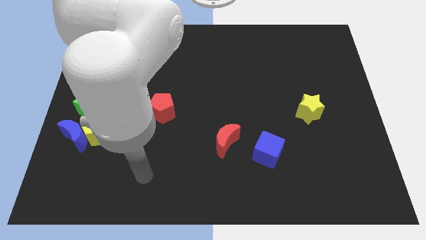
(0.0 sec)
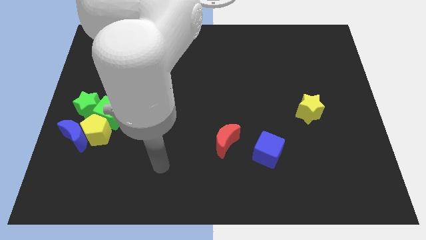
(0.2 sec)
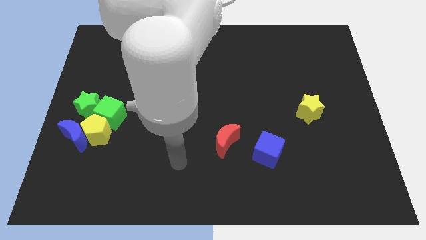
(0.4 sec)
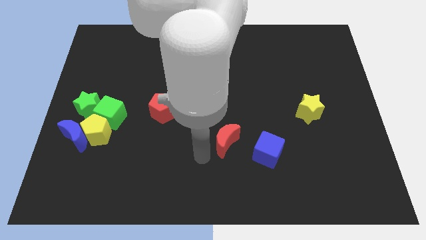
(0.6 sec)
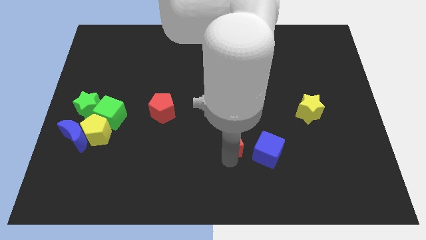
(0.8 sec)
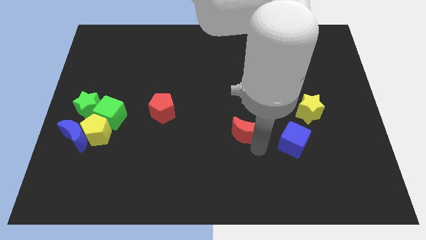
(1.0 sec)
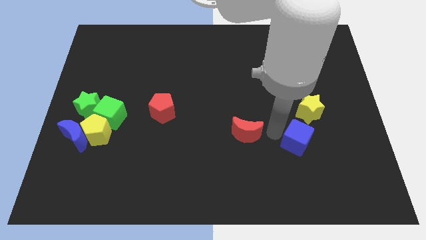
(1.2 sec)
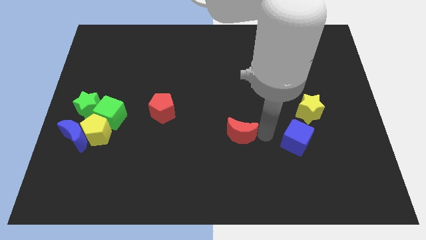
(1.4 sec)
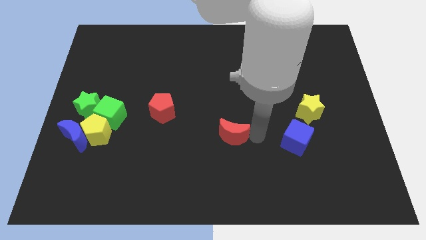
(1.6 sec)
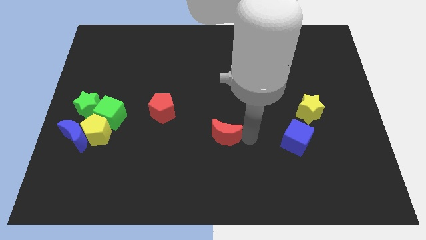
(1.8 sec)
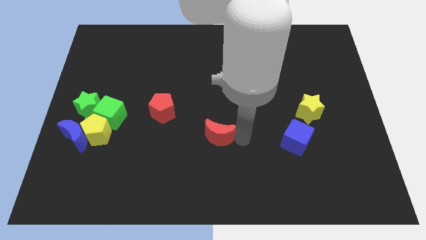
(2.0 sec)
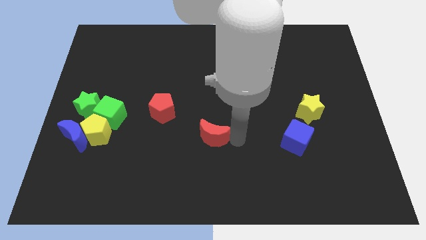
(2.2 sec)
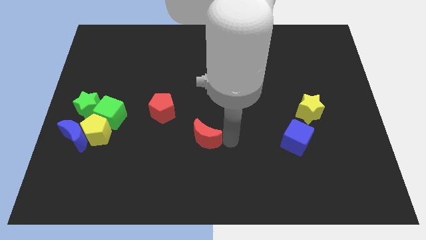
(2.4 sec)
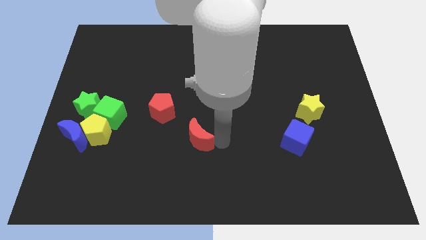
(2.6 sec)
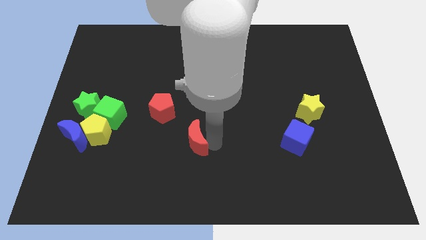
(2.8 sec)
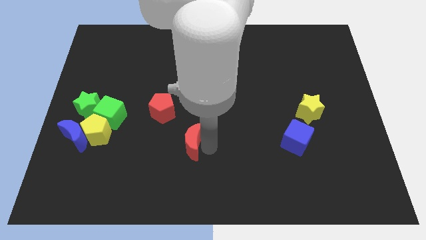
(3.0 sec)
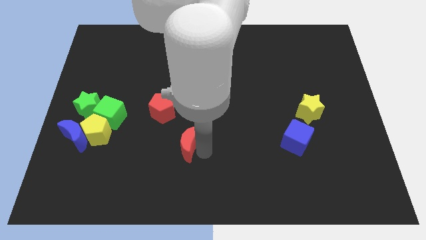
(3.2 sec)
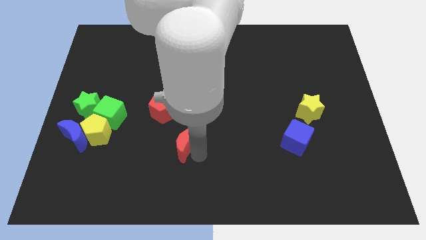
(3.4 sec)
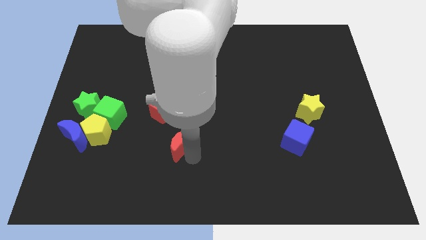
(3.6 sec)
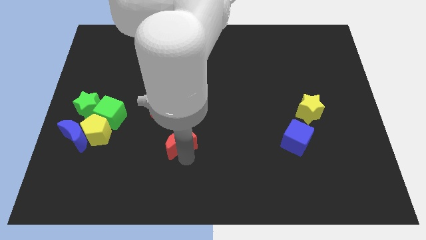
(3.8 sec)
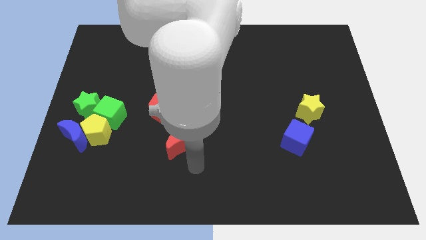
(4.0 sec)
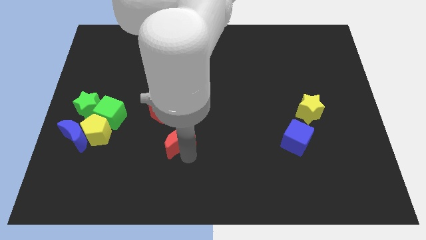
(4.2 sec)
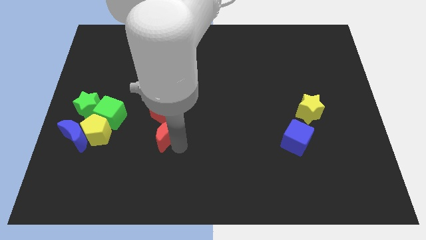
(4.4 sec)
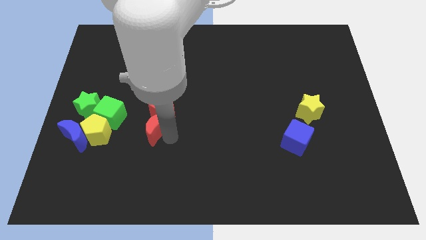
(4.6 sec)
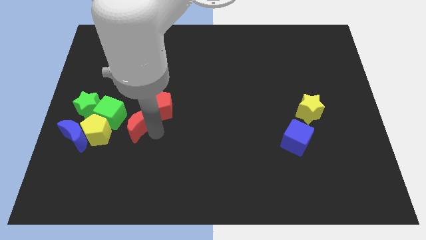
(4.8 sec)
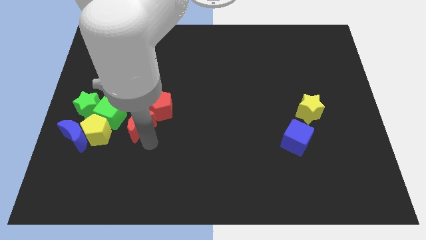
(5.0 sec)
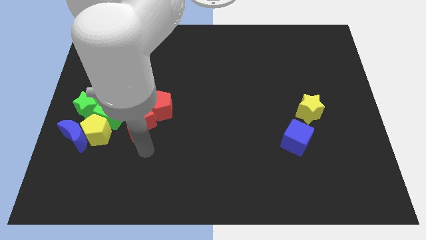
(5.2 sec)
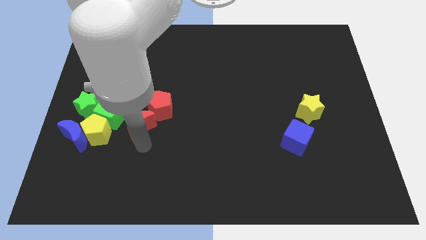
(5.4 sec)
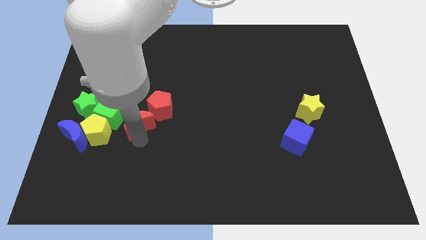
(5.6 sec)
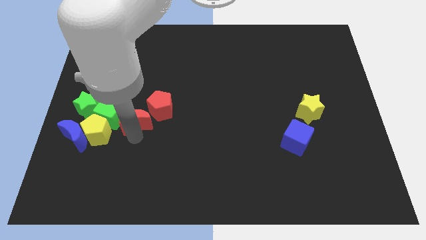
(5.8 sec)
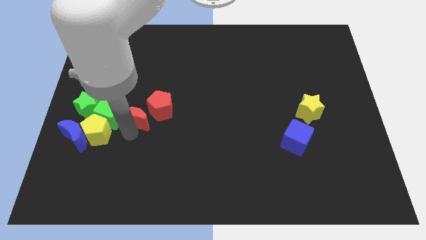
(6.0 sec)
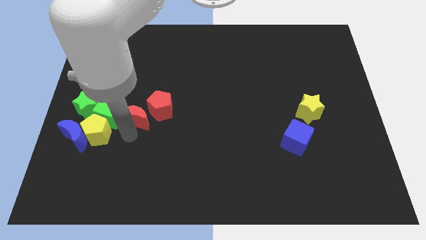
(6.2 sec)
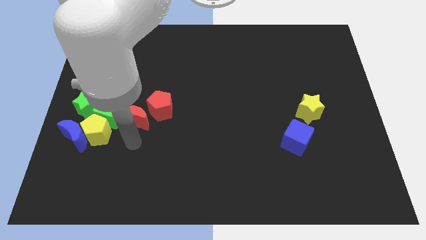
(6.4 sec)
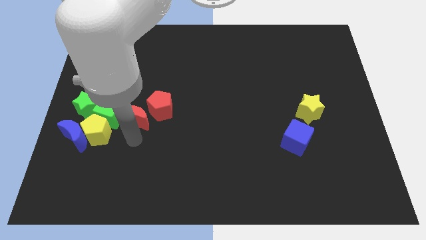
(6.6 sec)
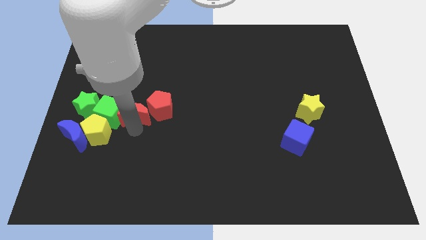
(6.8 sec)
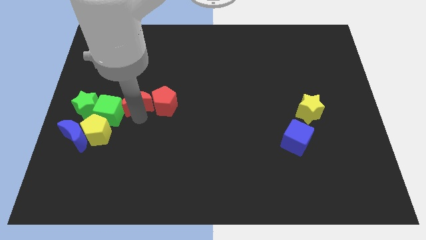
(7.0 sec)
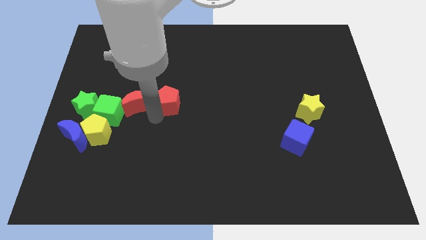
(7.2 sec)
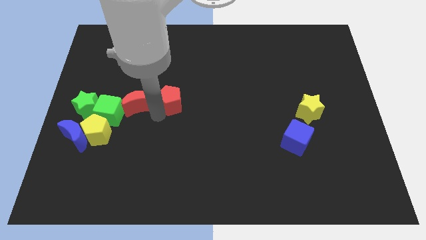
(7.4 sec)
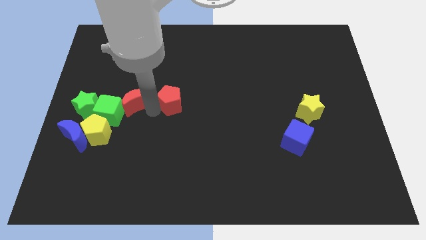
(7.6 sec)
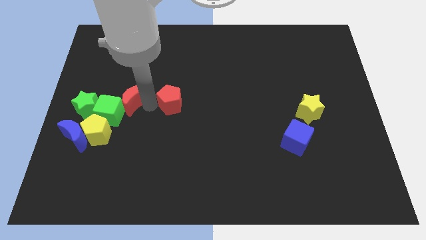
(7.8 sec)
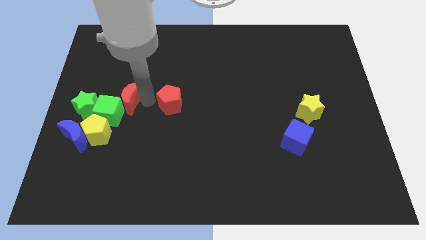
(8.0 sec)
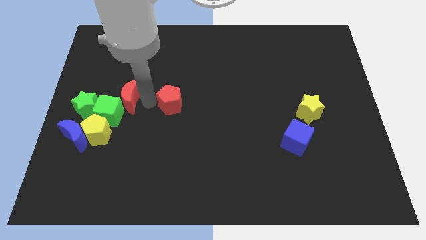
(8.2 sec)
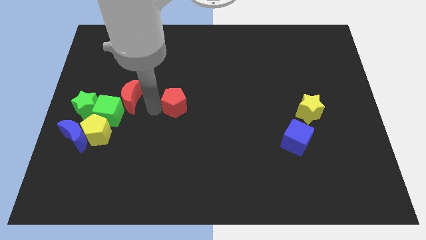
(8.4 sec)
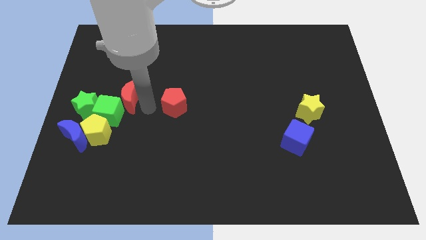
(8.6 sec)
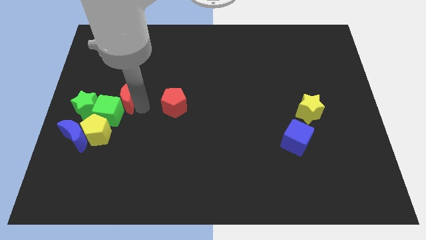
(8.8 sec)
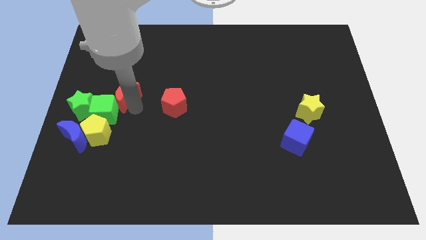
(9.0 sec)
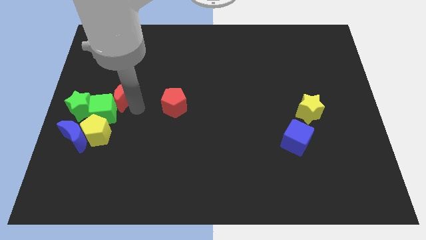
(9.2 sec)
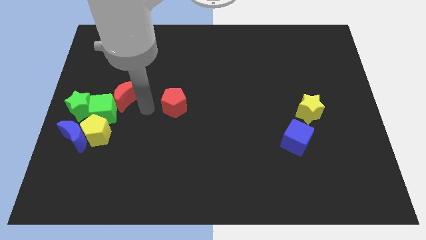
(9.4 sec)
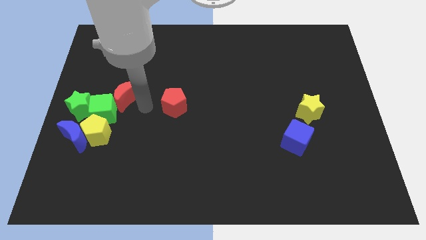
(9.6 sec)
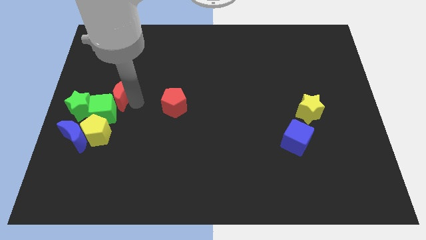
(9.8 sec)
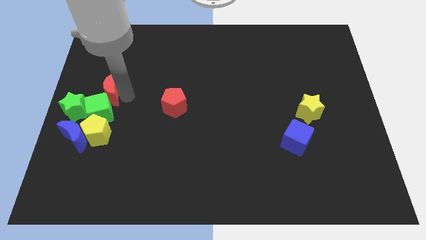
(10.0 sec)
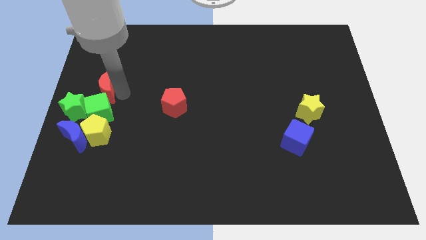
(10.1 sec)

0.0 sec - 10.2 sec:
move the red moon to the center left

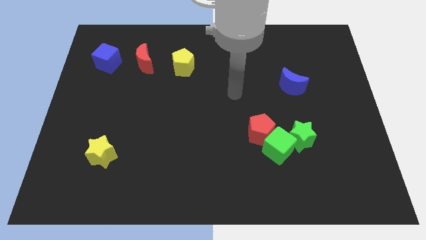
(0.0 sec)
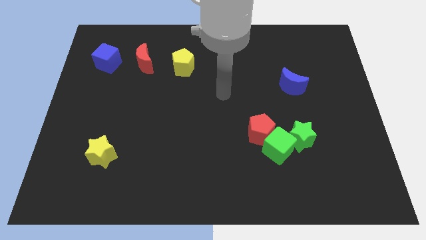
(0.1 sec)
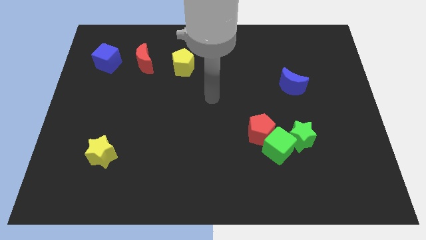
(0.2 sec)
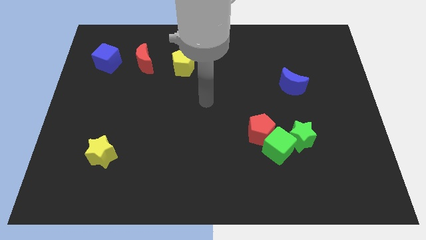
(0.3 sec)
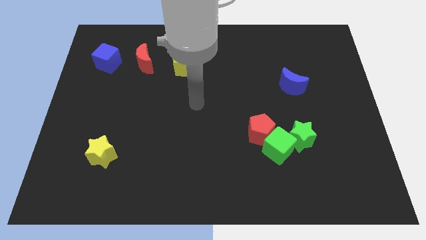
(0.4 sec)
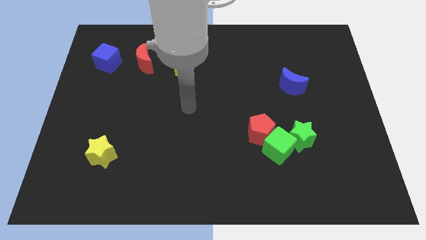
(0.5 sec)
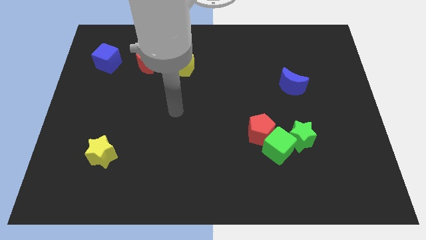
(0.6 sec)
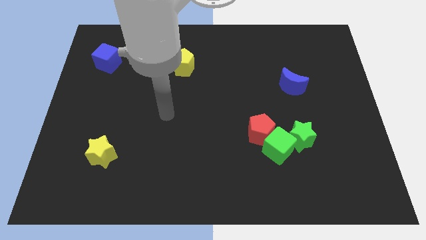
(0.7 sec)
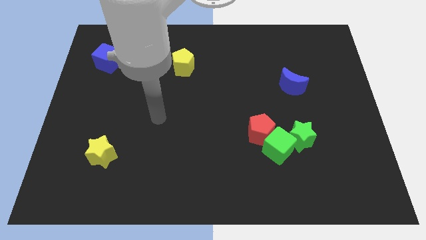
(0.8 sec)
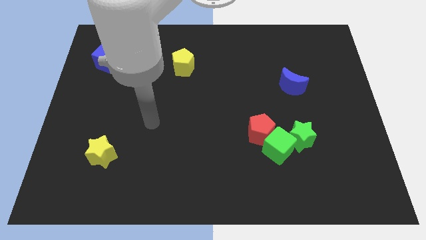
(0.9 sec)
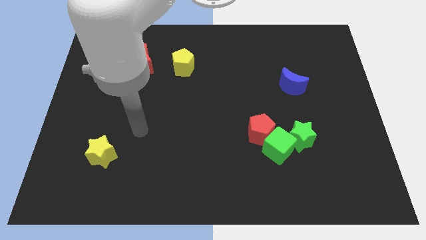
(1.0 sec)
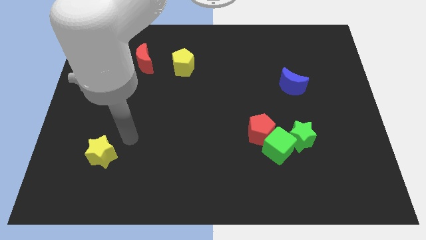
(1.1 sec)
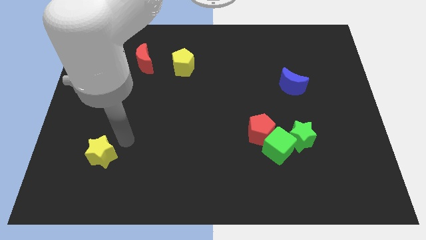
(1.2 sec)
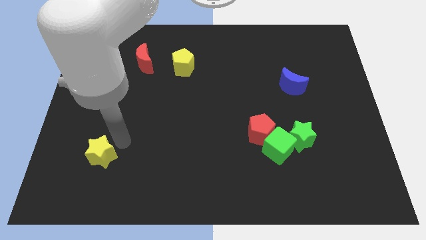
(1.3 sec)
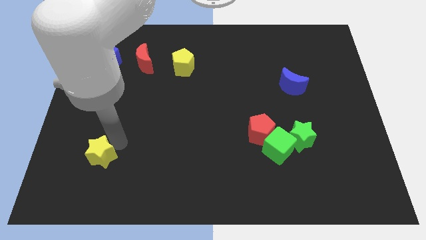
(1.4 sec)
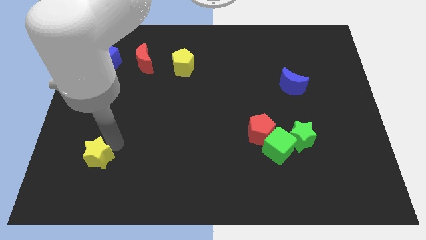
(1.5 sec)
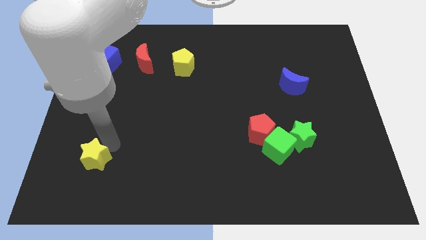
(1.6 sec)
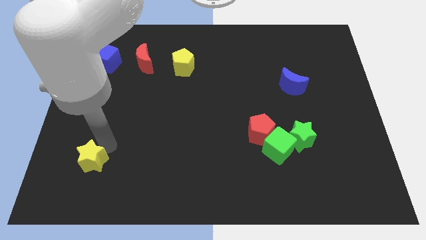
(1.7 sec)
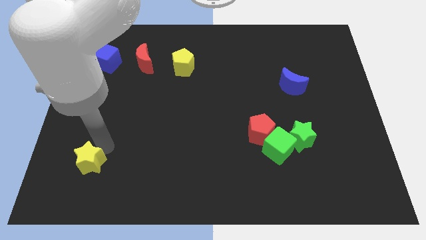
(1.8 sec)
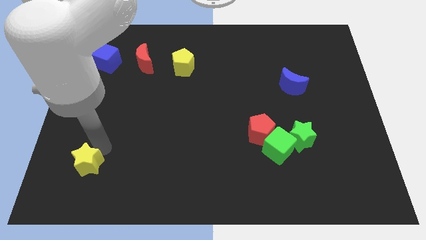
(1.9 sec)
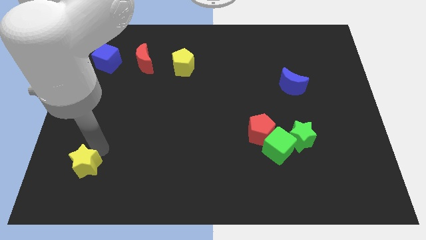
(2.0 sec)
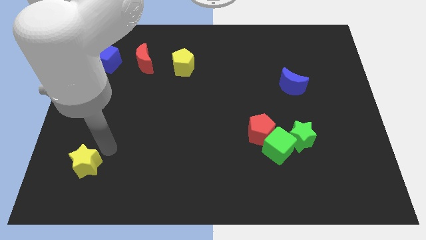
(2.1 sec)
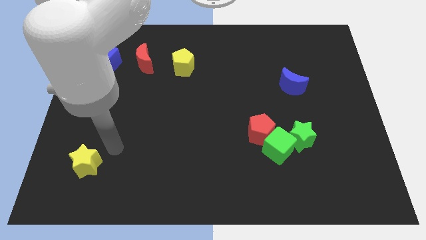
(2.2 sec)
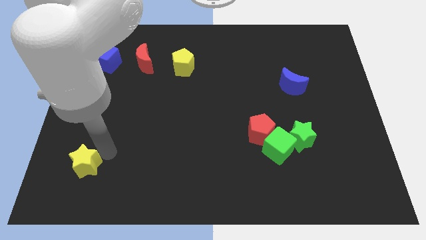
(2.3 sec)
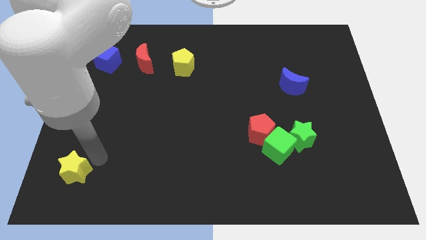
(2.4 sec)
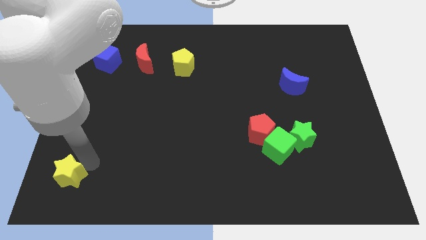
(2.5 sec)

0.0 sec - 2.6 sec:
move the yellow star to the bottom left

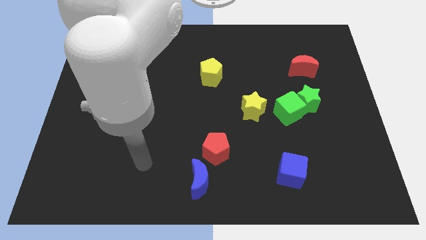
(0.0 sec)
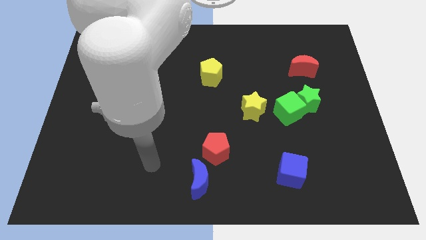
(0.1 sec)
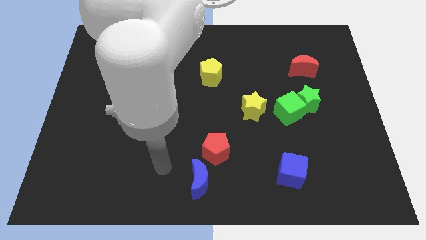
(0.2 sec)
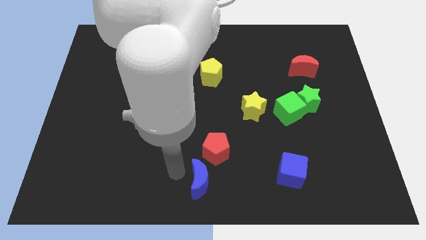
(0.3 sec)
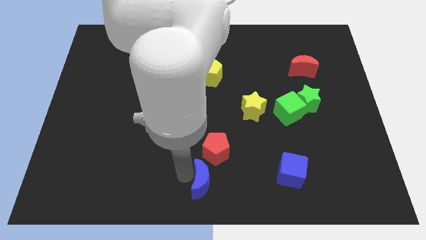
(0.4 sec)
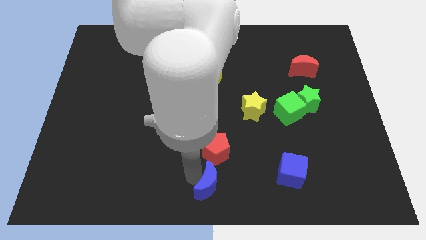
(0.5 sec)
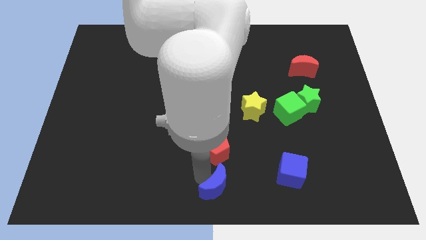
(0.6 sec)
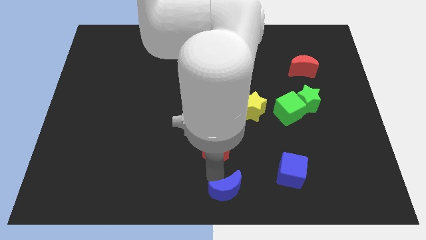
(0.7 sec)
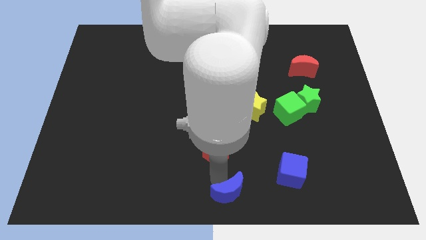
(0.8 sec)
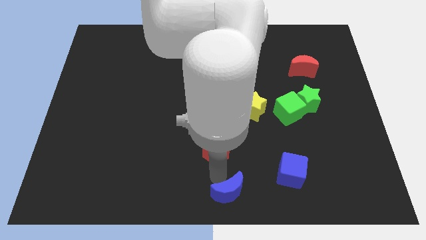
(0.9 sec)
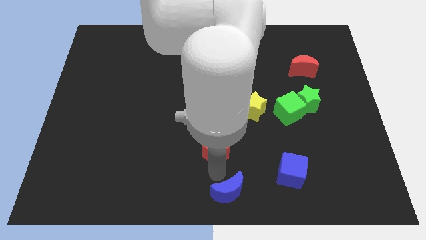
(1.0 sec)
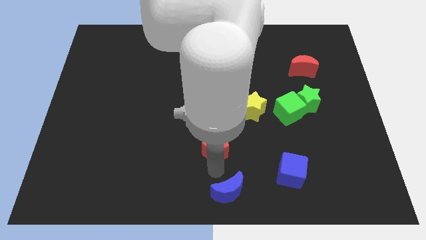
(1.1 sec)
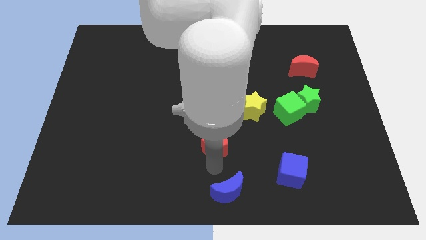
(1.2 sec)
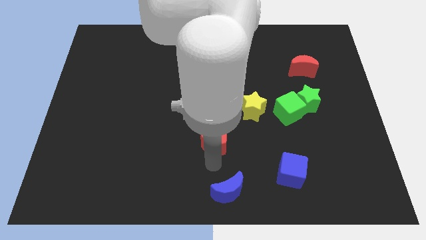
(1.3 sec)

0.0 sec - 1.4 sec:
slide the red pentagon to the middle of the board
